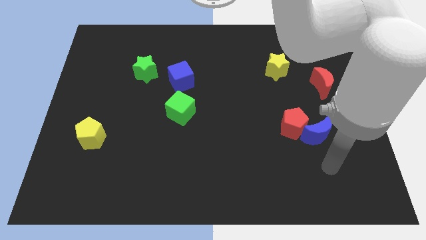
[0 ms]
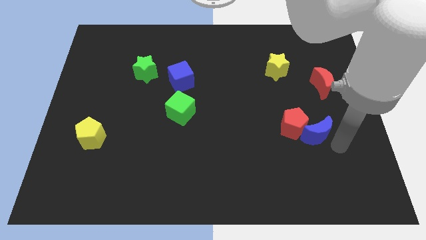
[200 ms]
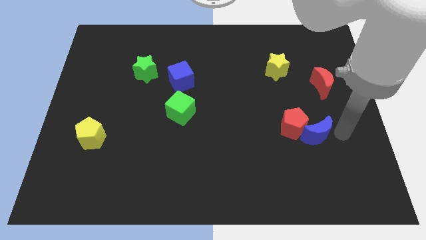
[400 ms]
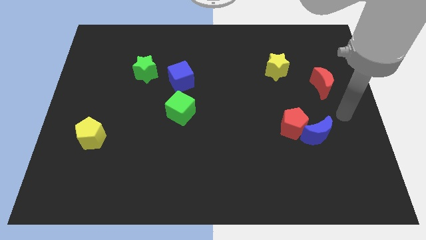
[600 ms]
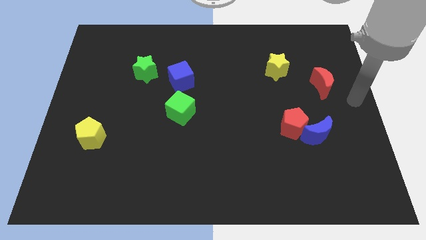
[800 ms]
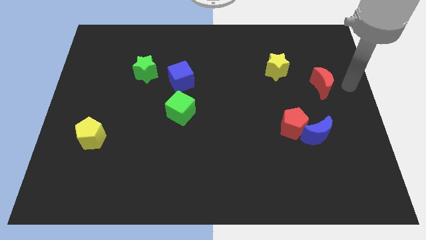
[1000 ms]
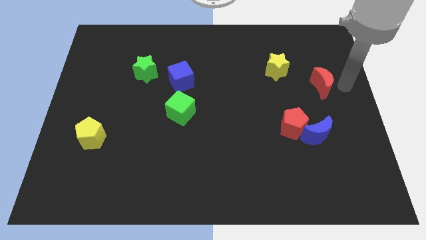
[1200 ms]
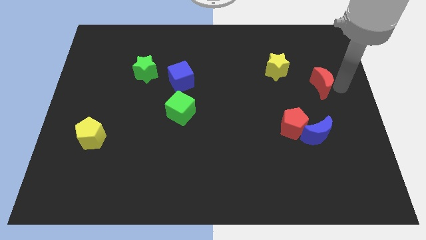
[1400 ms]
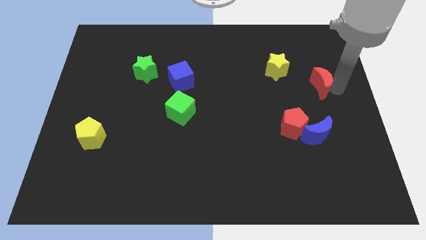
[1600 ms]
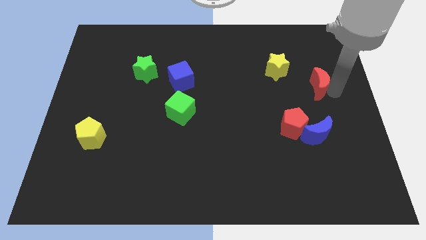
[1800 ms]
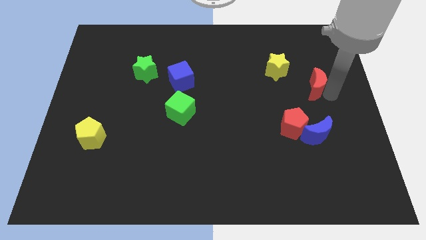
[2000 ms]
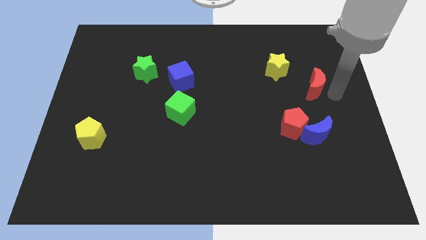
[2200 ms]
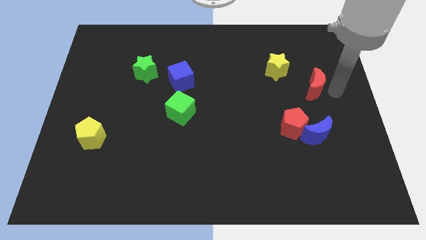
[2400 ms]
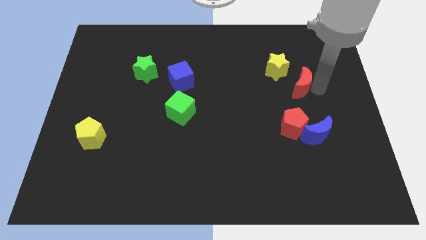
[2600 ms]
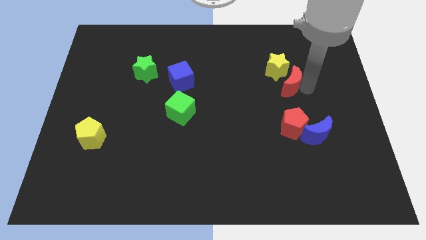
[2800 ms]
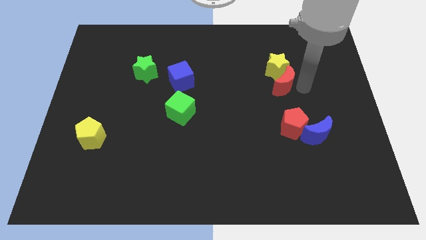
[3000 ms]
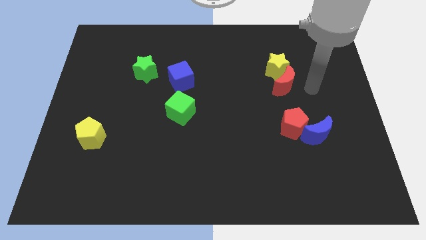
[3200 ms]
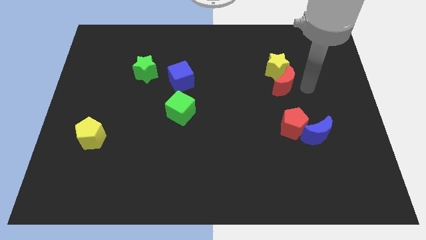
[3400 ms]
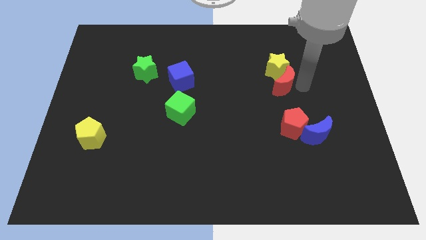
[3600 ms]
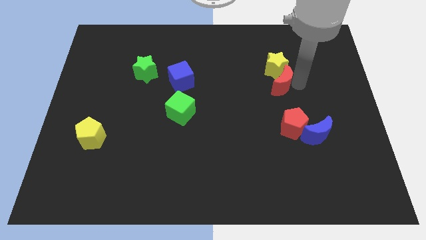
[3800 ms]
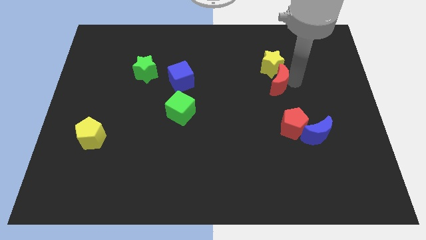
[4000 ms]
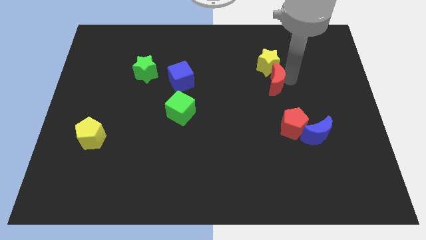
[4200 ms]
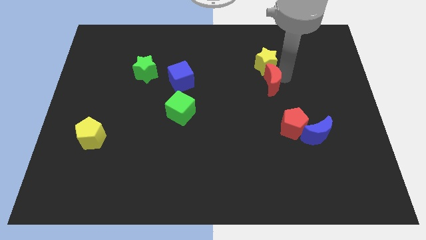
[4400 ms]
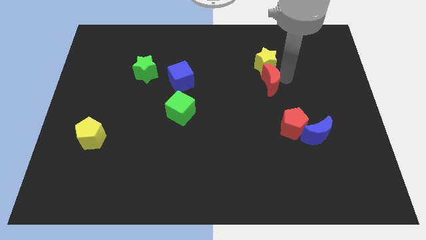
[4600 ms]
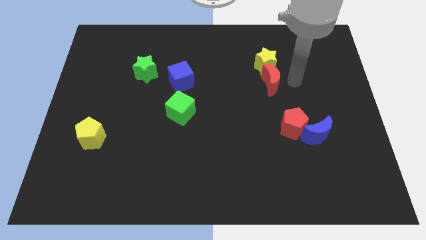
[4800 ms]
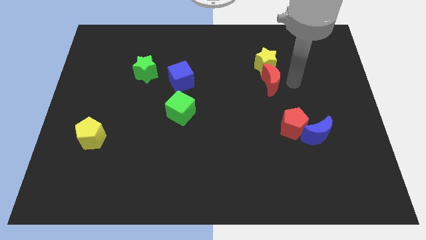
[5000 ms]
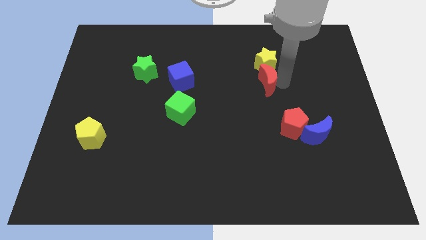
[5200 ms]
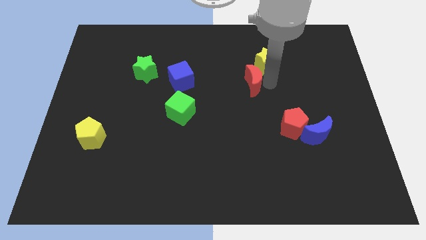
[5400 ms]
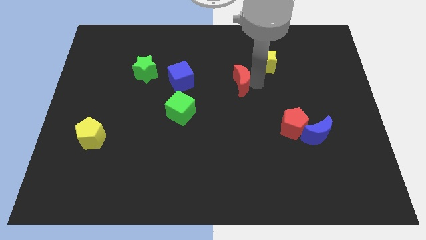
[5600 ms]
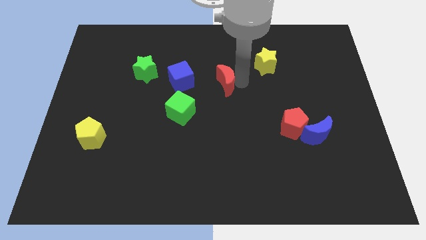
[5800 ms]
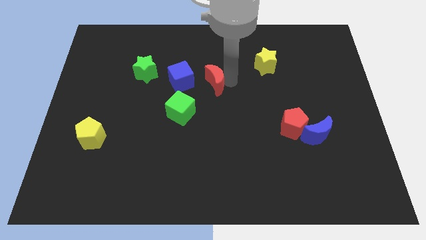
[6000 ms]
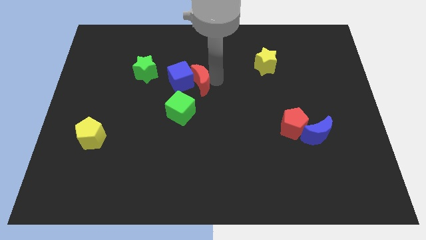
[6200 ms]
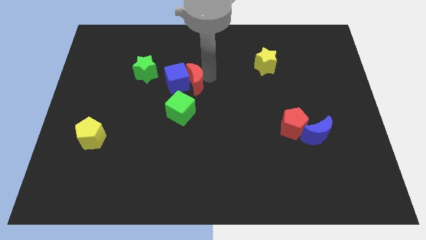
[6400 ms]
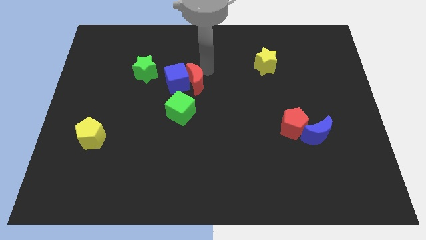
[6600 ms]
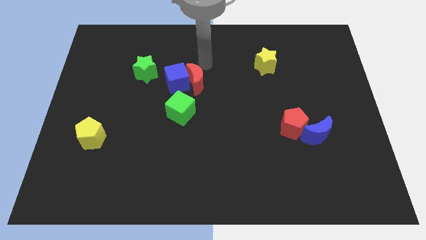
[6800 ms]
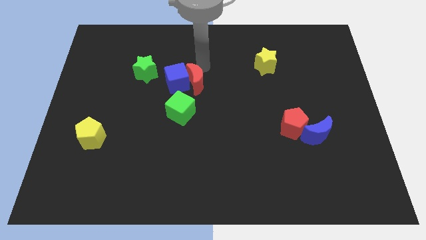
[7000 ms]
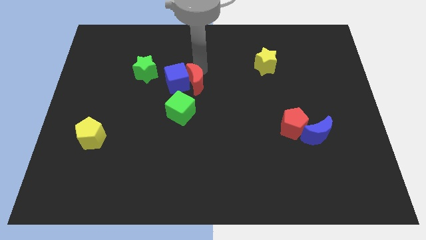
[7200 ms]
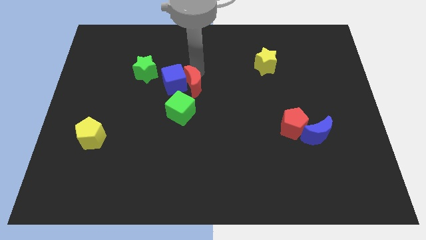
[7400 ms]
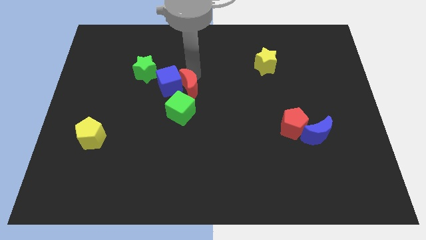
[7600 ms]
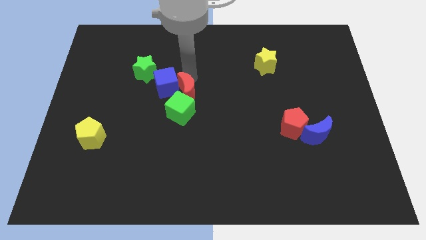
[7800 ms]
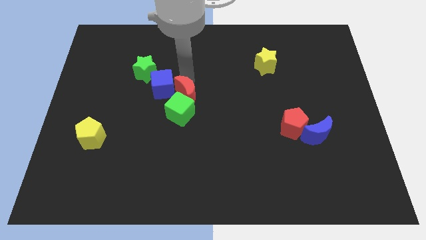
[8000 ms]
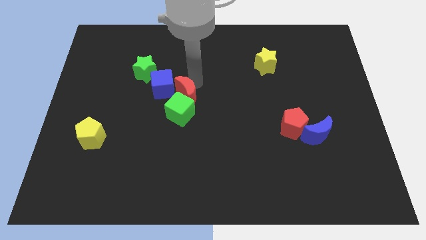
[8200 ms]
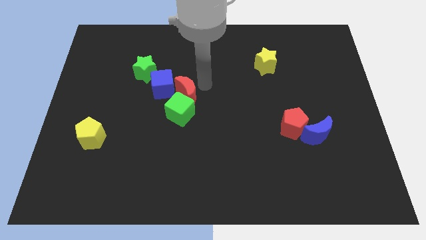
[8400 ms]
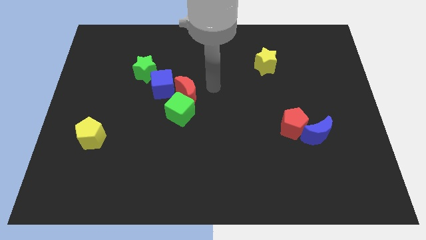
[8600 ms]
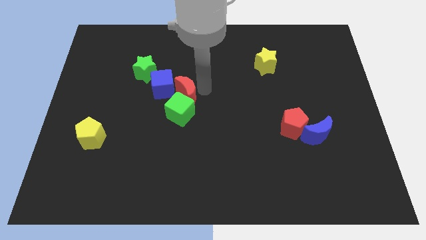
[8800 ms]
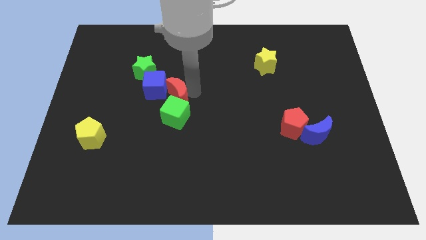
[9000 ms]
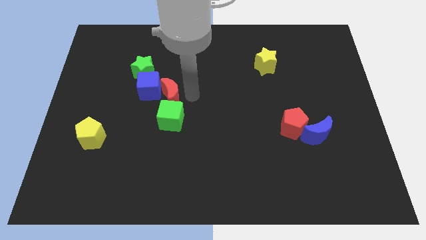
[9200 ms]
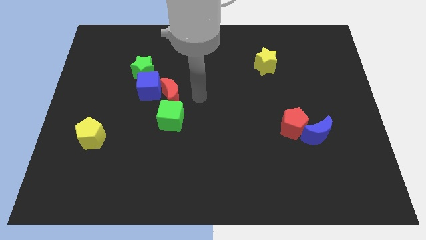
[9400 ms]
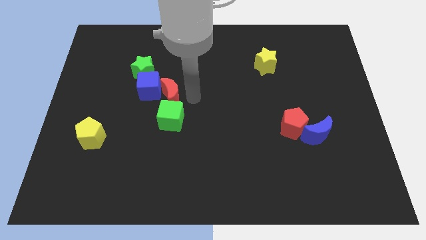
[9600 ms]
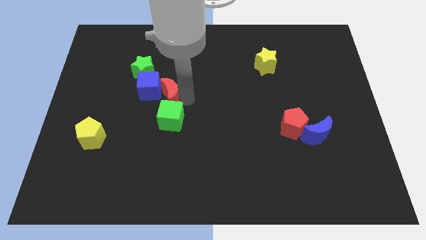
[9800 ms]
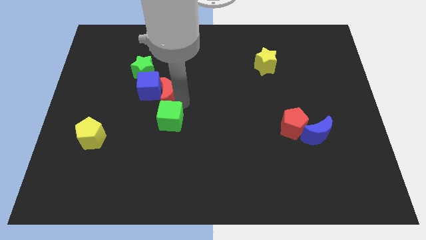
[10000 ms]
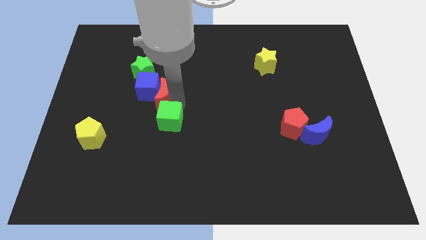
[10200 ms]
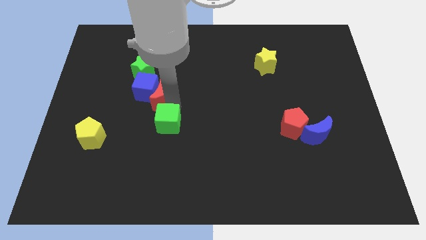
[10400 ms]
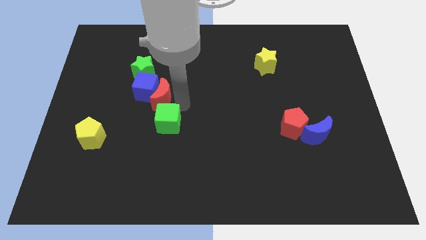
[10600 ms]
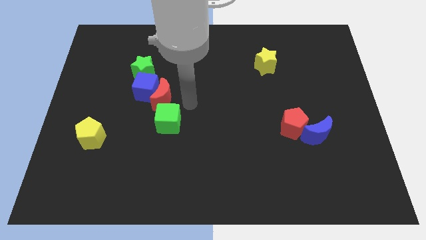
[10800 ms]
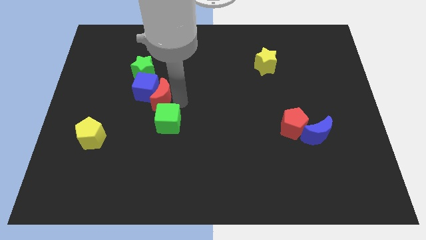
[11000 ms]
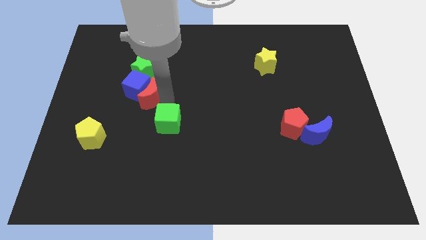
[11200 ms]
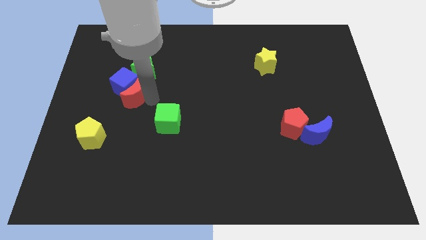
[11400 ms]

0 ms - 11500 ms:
push the red moon to the bottom left side of the green star

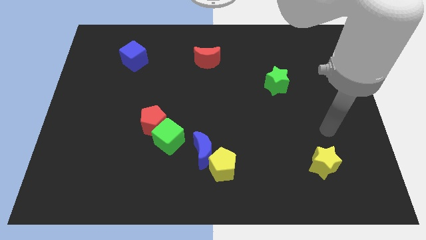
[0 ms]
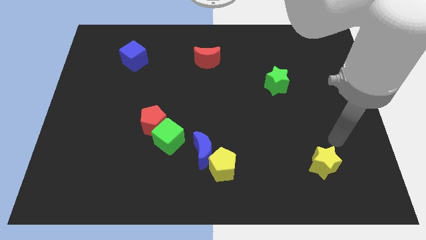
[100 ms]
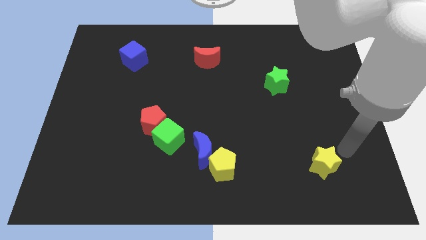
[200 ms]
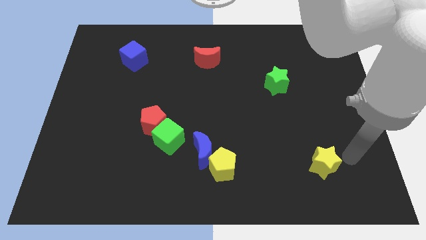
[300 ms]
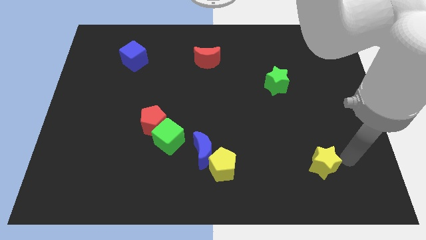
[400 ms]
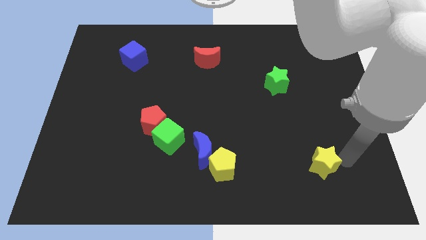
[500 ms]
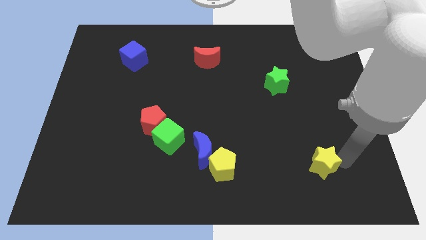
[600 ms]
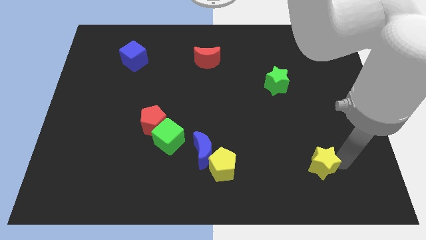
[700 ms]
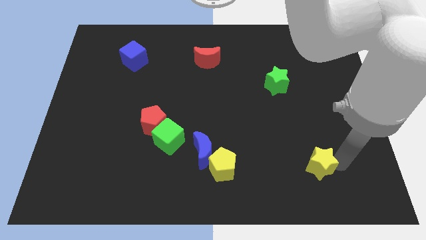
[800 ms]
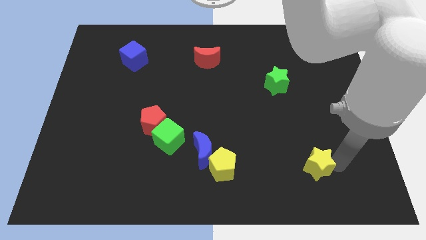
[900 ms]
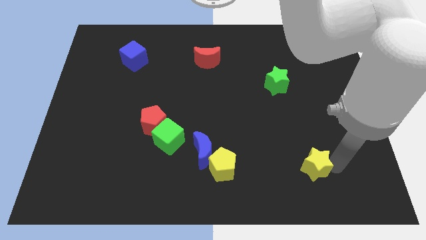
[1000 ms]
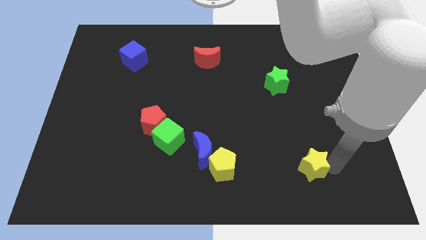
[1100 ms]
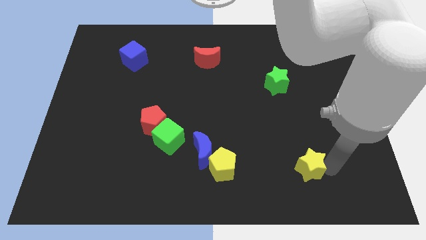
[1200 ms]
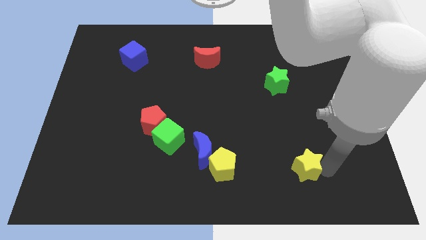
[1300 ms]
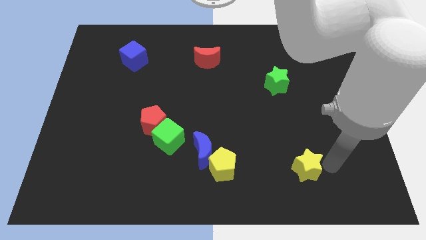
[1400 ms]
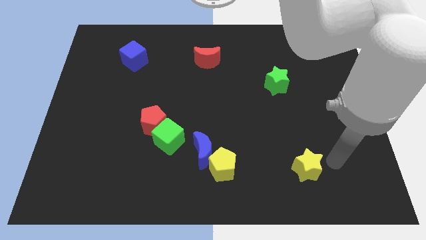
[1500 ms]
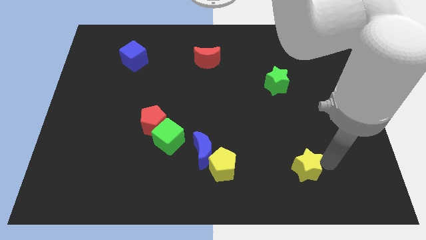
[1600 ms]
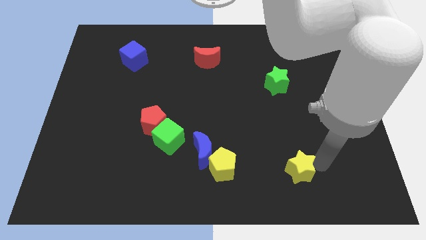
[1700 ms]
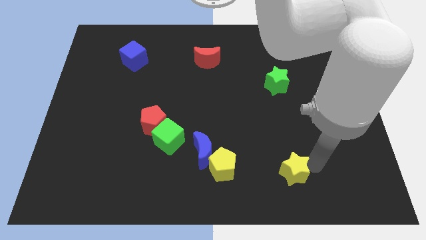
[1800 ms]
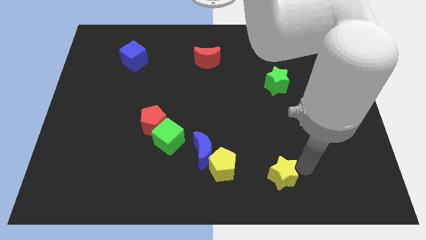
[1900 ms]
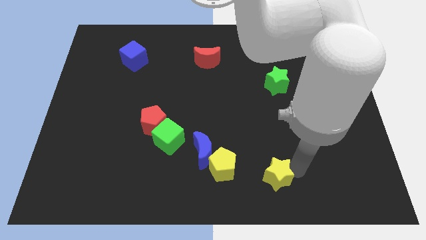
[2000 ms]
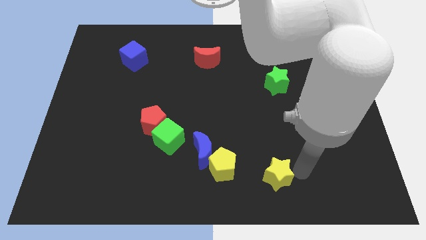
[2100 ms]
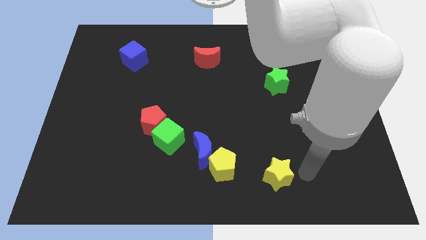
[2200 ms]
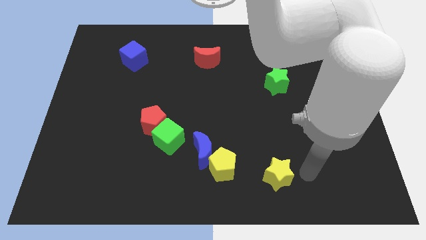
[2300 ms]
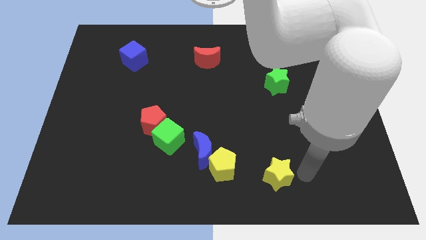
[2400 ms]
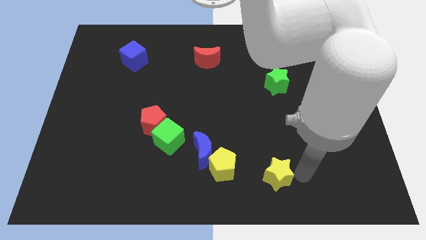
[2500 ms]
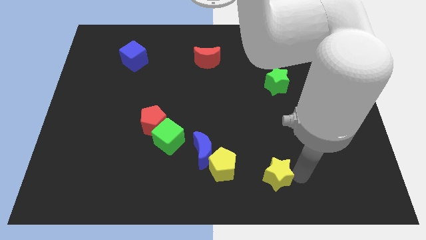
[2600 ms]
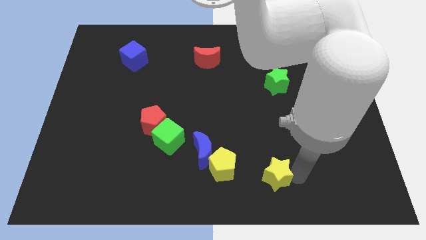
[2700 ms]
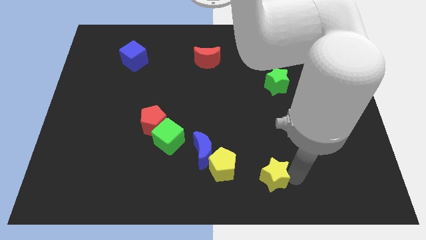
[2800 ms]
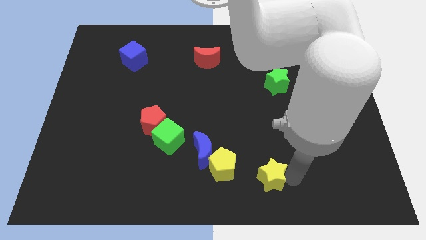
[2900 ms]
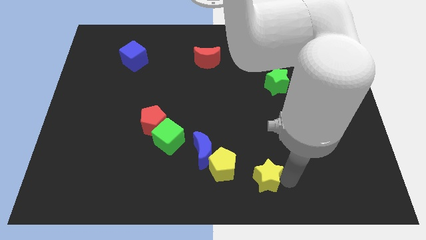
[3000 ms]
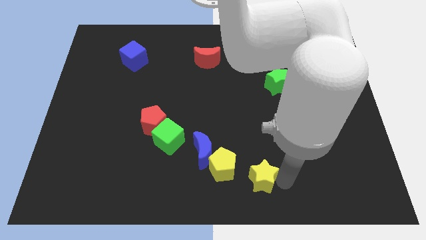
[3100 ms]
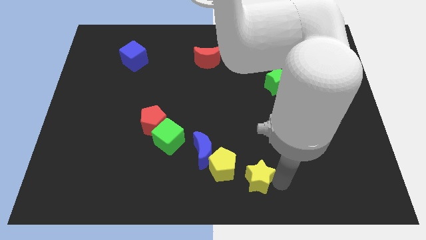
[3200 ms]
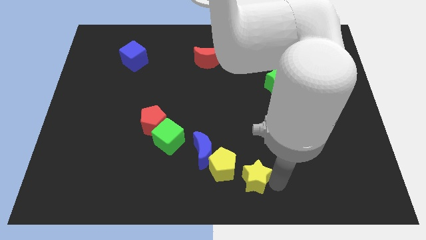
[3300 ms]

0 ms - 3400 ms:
slide the yellow star diagonally down and to the right of the blue moon
